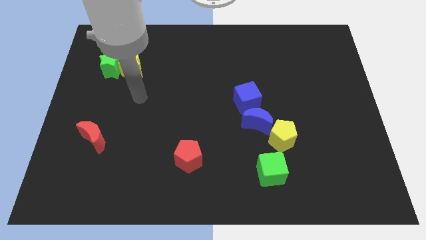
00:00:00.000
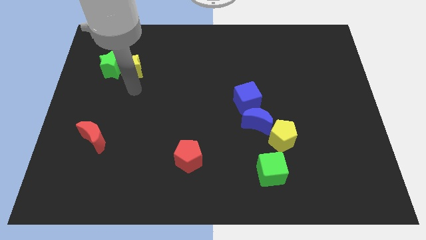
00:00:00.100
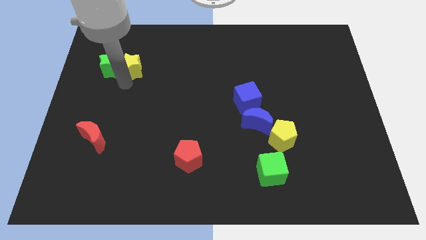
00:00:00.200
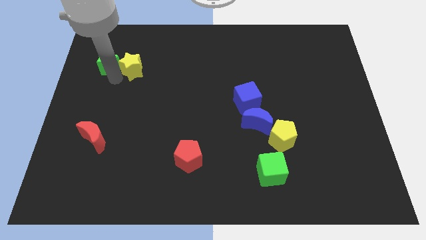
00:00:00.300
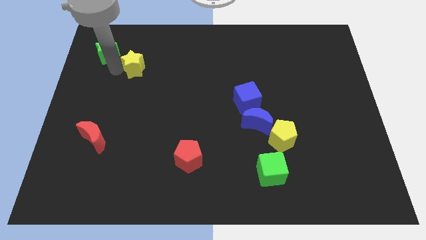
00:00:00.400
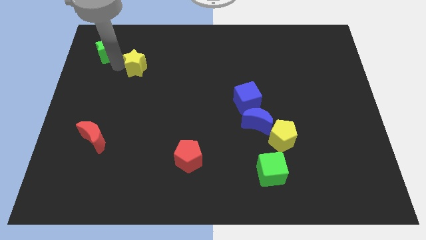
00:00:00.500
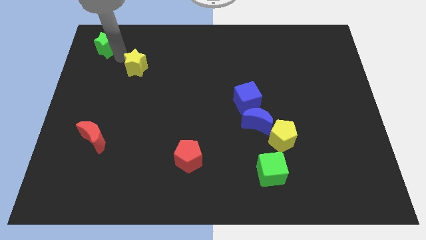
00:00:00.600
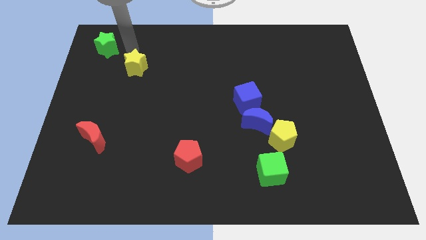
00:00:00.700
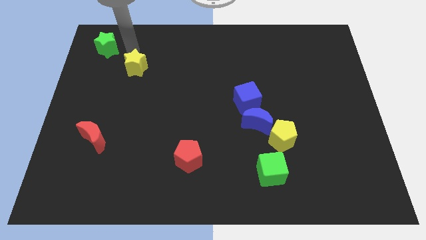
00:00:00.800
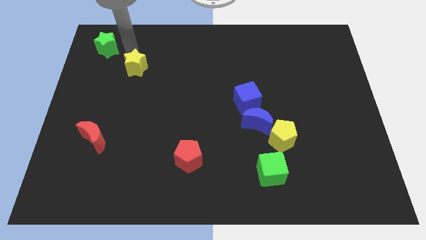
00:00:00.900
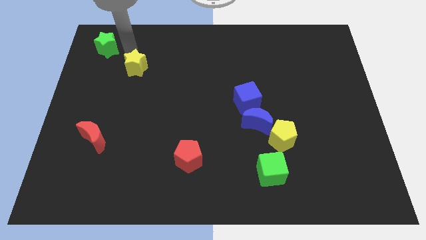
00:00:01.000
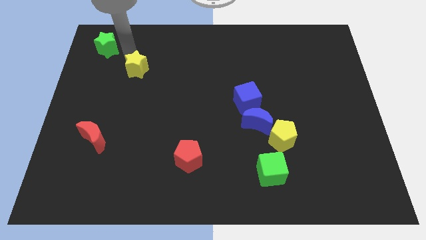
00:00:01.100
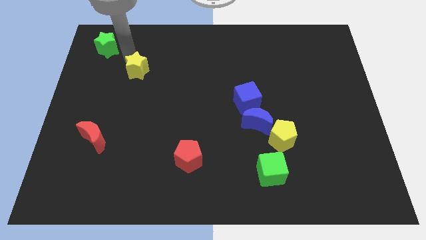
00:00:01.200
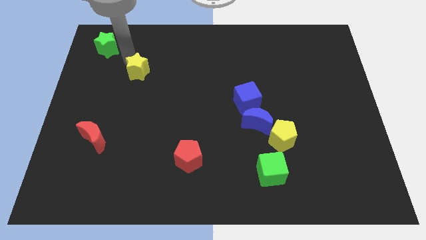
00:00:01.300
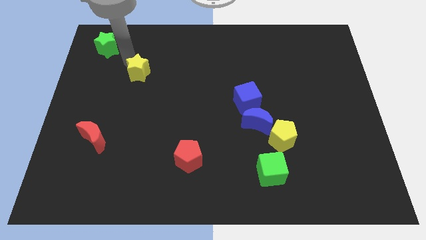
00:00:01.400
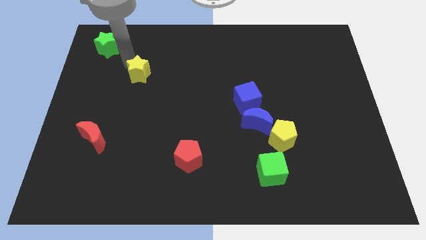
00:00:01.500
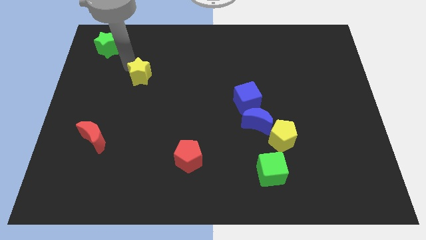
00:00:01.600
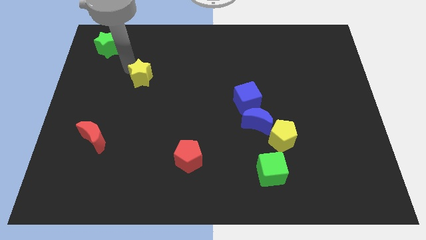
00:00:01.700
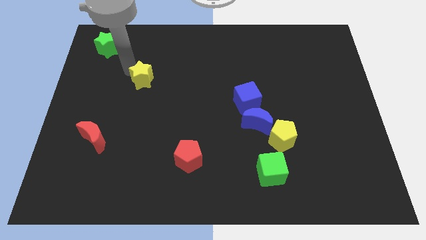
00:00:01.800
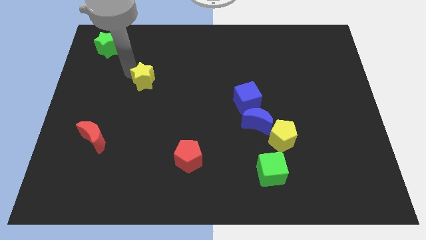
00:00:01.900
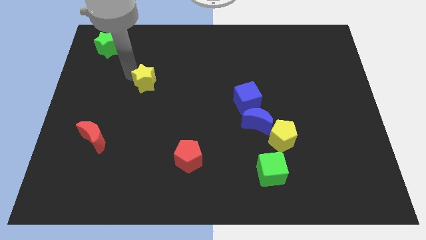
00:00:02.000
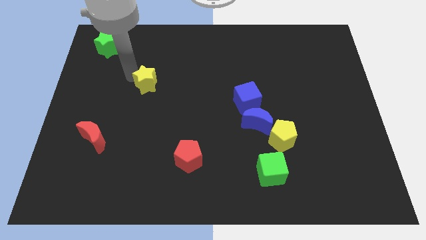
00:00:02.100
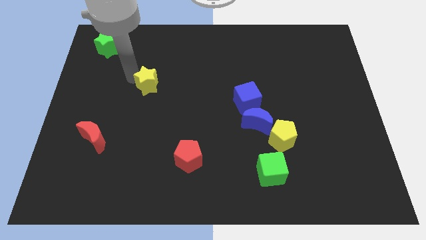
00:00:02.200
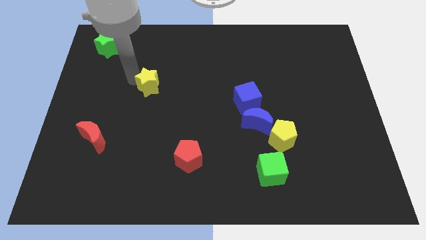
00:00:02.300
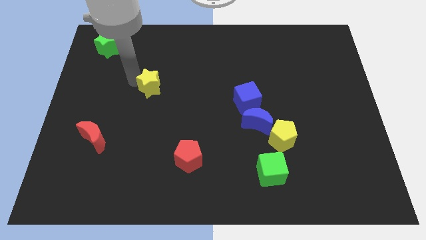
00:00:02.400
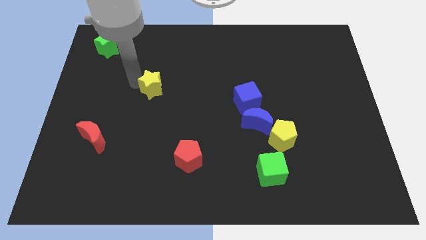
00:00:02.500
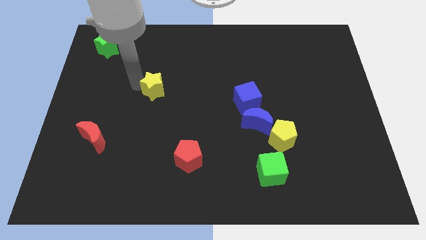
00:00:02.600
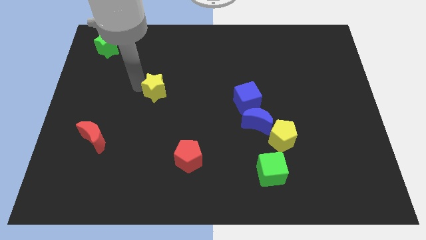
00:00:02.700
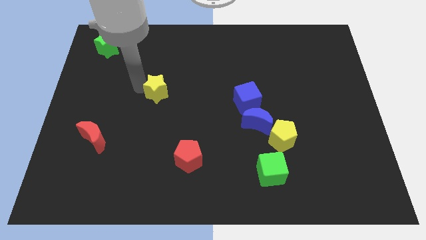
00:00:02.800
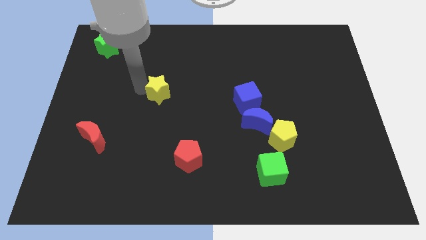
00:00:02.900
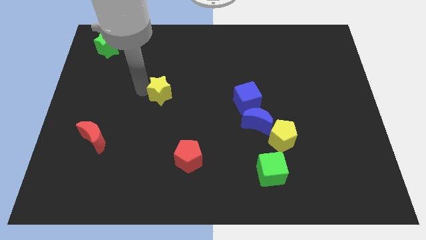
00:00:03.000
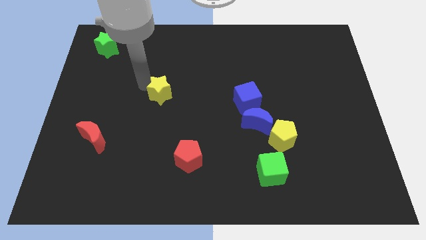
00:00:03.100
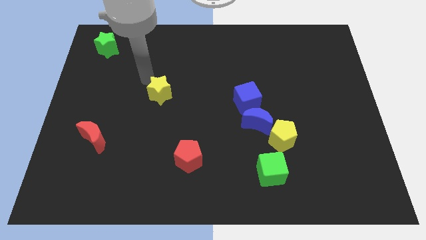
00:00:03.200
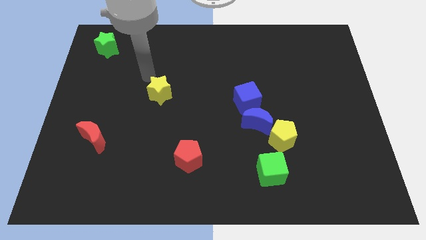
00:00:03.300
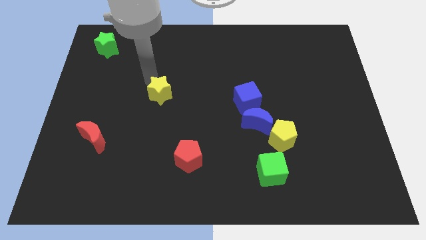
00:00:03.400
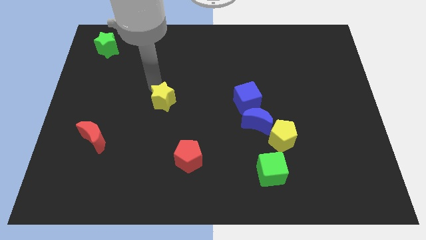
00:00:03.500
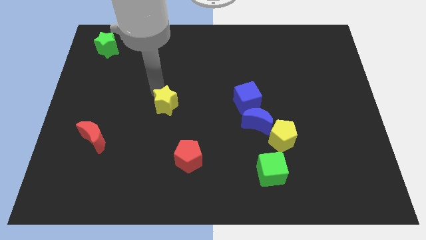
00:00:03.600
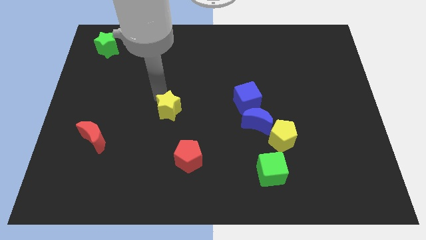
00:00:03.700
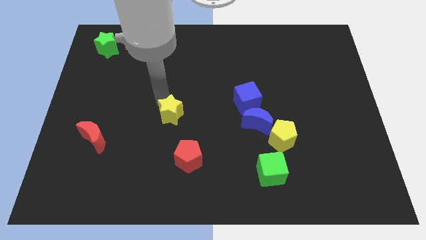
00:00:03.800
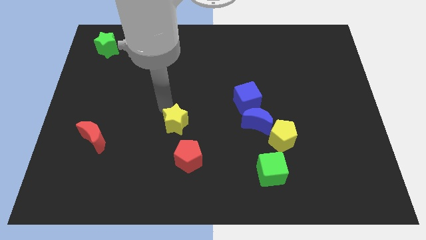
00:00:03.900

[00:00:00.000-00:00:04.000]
move the yellow star downwards and right

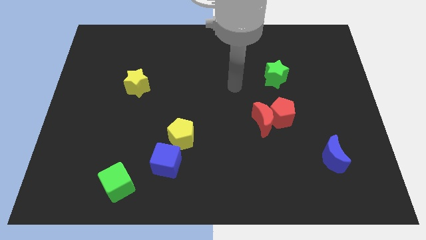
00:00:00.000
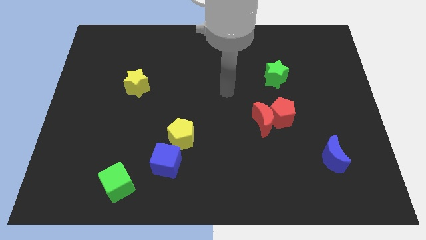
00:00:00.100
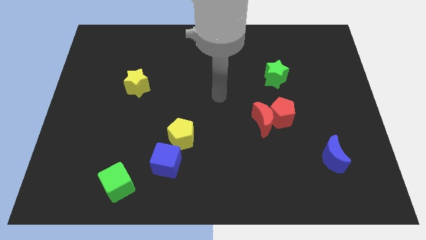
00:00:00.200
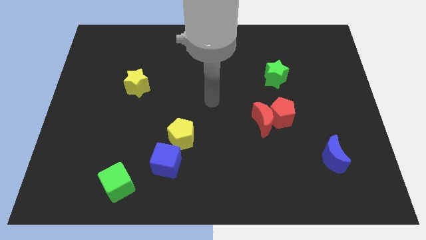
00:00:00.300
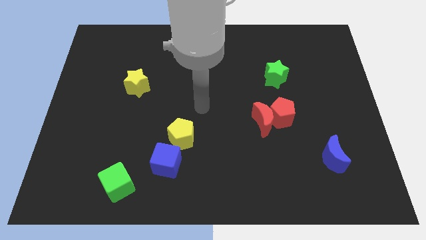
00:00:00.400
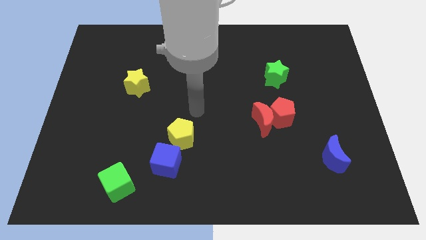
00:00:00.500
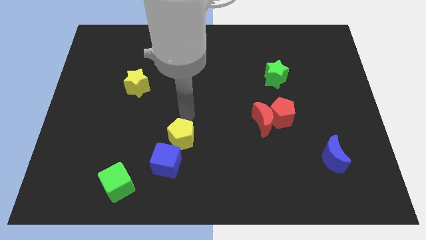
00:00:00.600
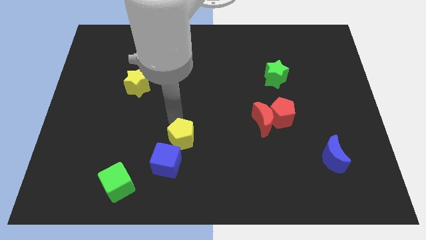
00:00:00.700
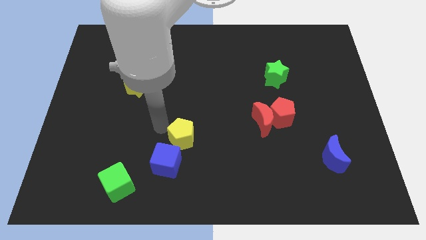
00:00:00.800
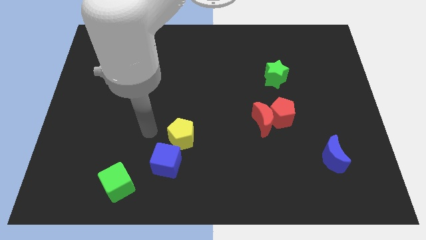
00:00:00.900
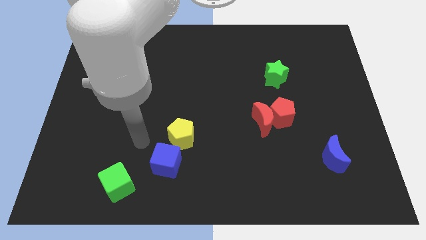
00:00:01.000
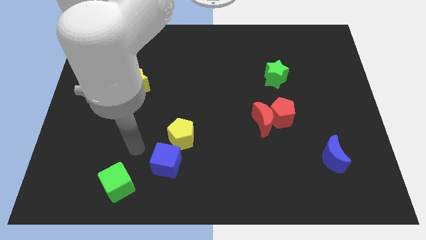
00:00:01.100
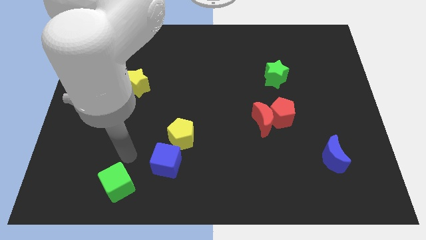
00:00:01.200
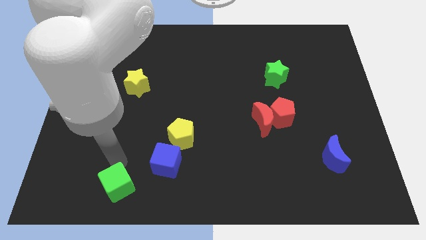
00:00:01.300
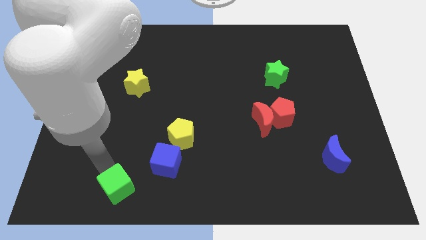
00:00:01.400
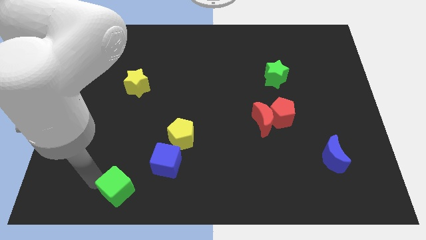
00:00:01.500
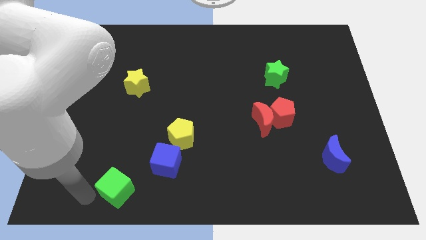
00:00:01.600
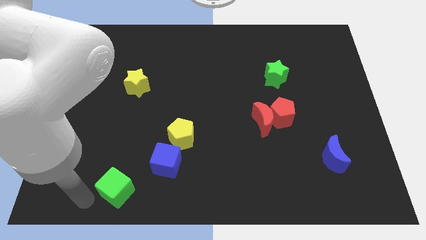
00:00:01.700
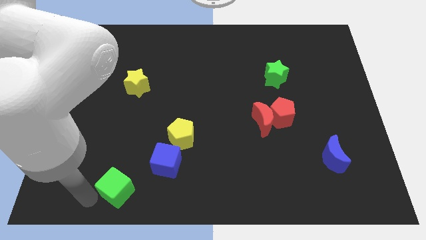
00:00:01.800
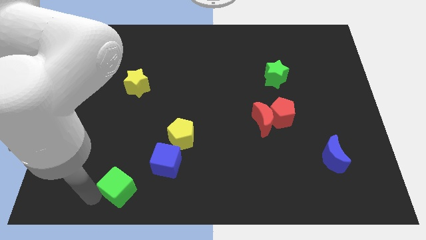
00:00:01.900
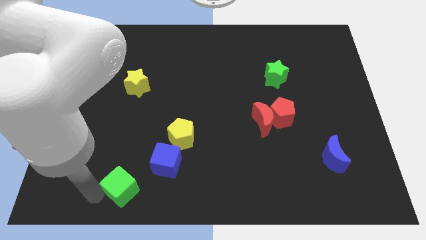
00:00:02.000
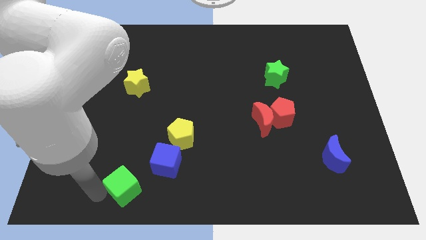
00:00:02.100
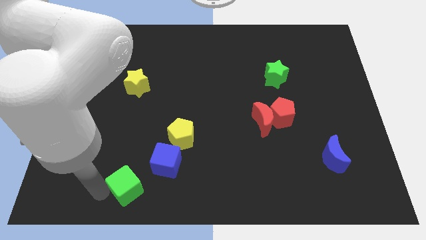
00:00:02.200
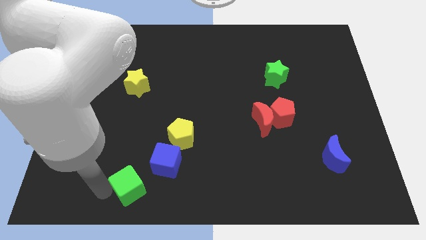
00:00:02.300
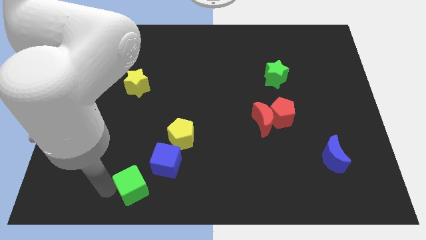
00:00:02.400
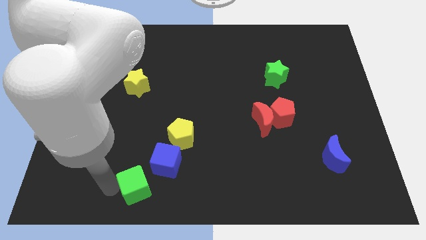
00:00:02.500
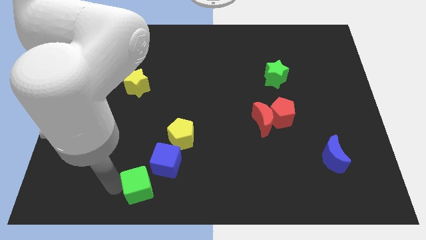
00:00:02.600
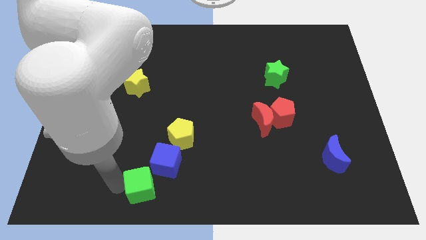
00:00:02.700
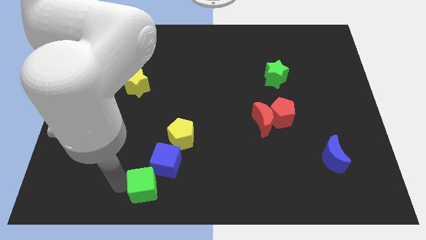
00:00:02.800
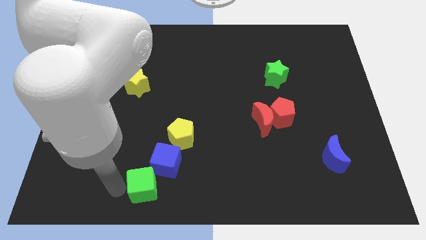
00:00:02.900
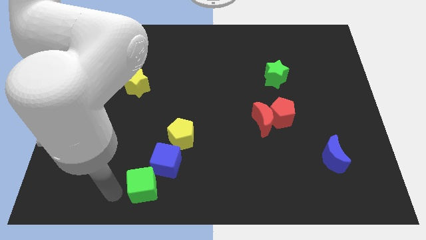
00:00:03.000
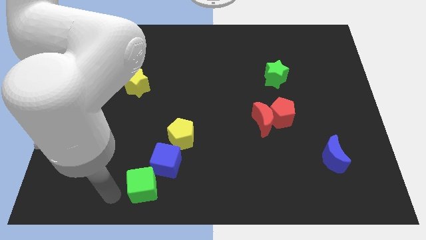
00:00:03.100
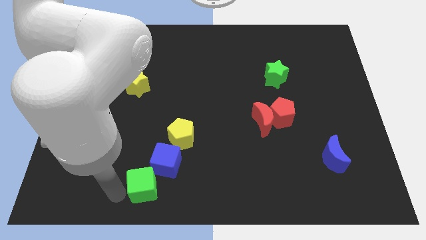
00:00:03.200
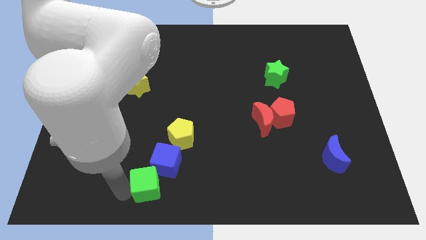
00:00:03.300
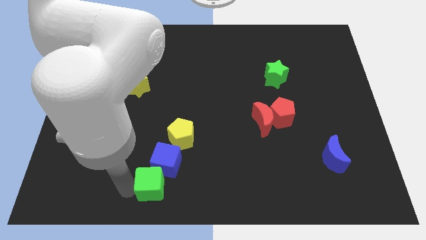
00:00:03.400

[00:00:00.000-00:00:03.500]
slightly move the green cube right

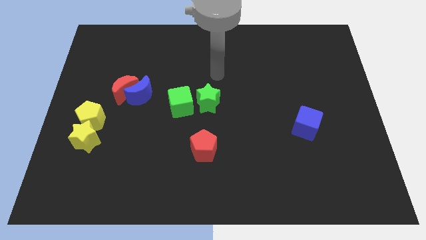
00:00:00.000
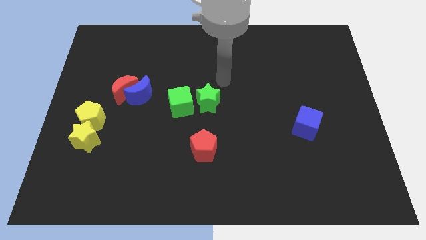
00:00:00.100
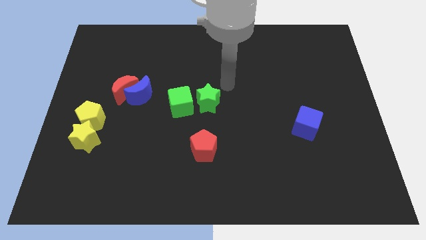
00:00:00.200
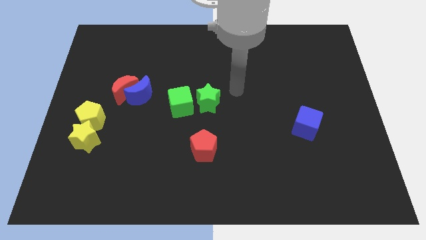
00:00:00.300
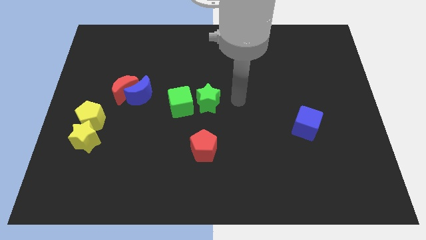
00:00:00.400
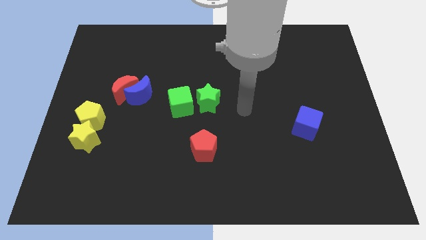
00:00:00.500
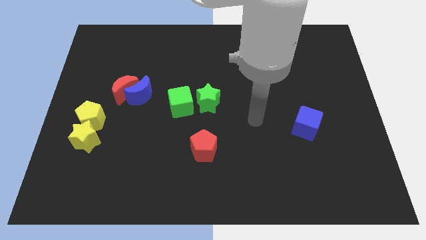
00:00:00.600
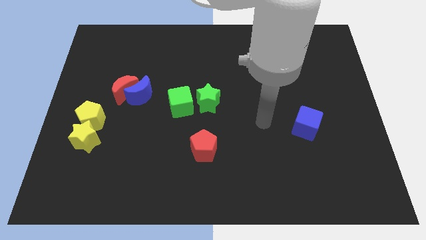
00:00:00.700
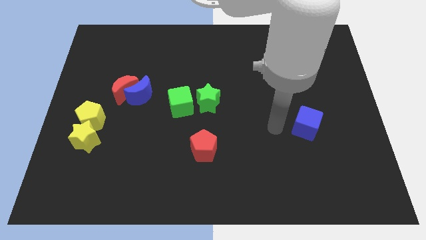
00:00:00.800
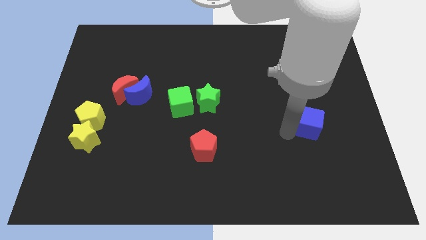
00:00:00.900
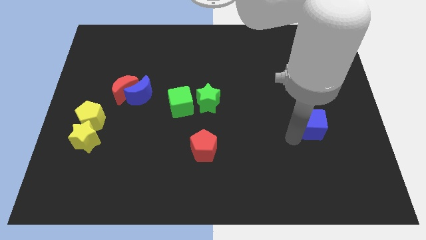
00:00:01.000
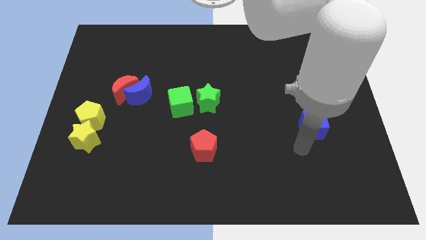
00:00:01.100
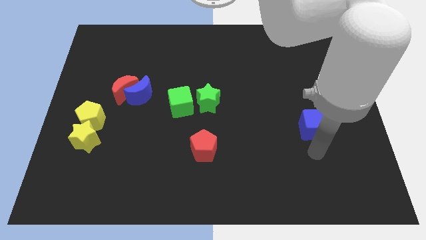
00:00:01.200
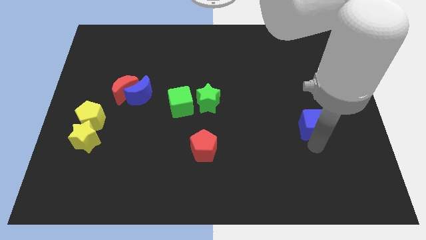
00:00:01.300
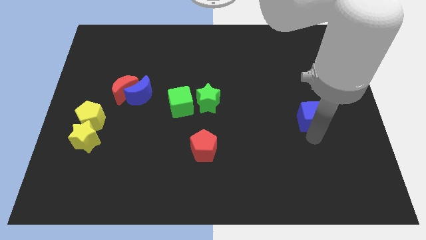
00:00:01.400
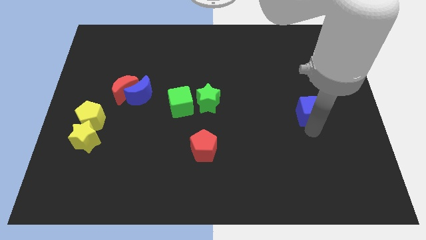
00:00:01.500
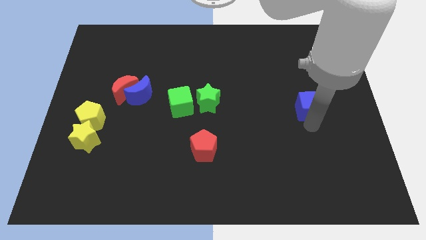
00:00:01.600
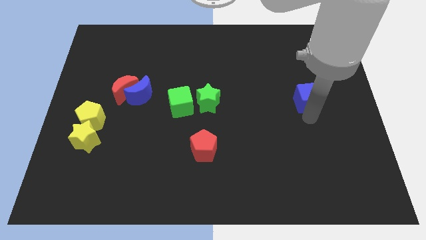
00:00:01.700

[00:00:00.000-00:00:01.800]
slide the blue cube a little bit up
